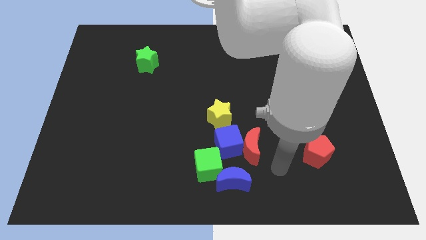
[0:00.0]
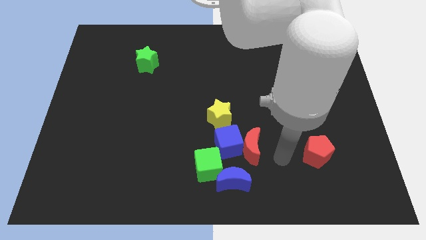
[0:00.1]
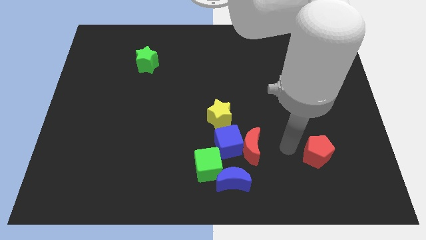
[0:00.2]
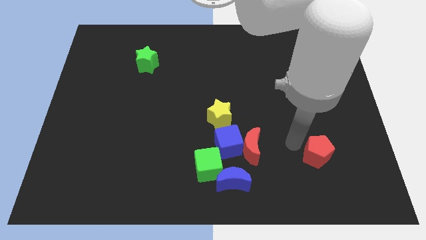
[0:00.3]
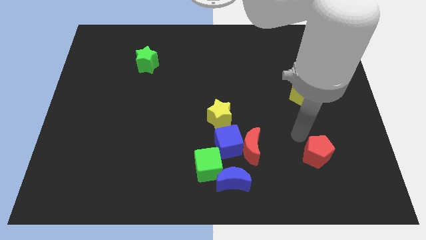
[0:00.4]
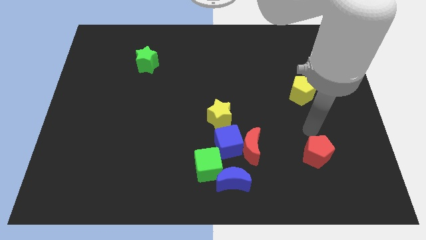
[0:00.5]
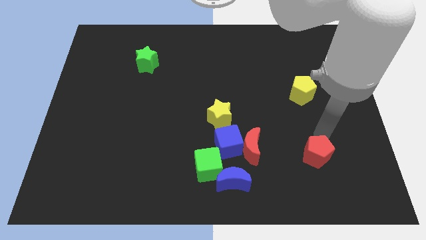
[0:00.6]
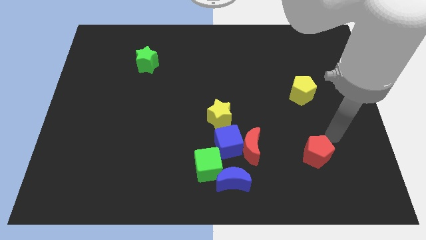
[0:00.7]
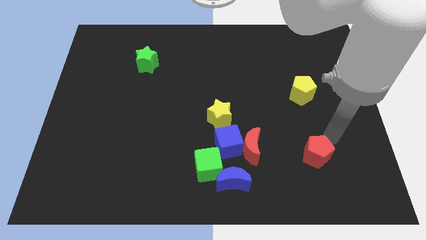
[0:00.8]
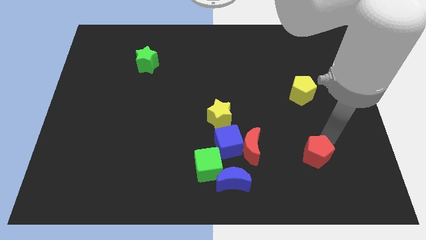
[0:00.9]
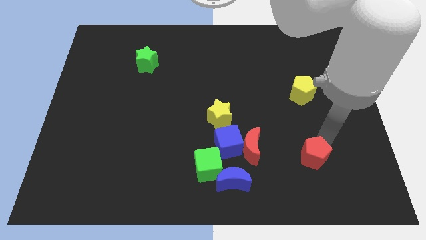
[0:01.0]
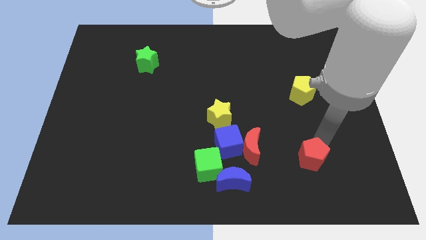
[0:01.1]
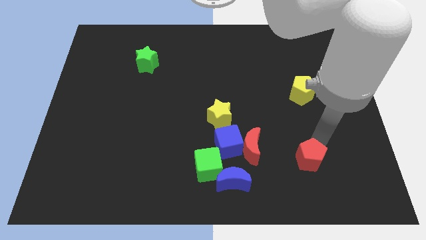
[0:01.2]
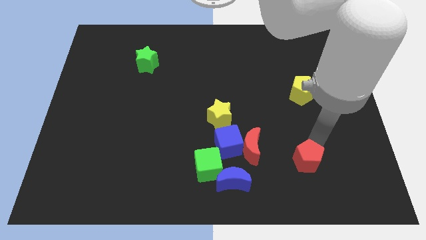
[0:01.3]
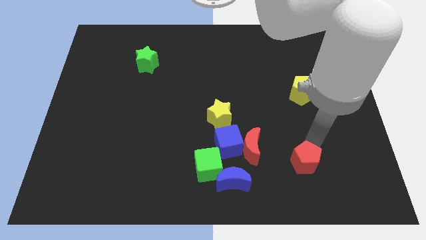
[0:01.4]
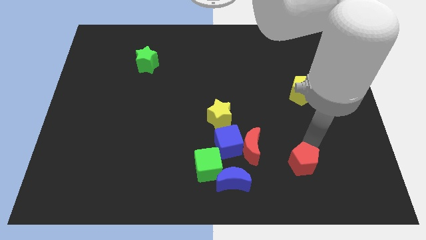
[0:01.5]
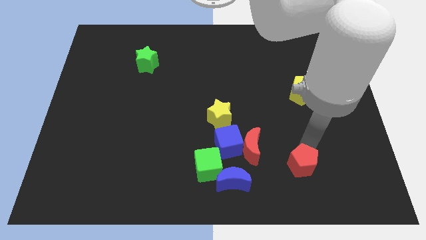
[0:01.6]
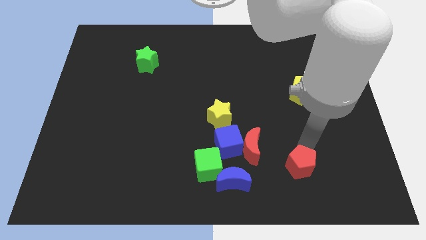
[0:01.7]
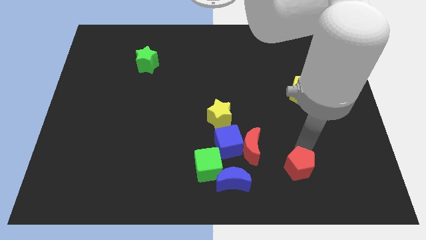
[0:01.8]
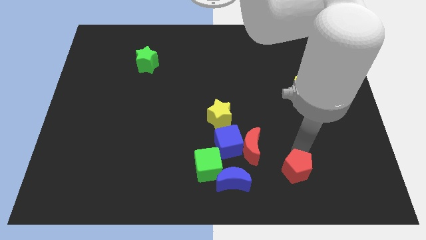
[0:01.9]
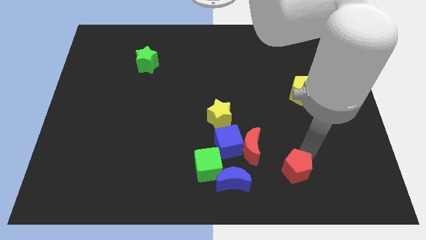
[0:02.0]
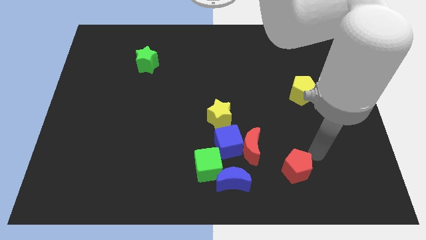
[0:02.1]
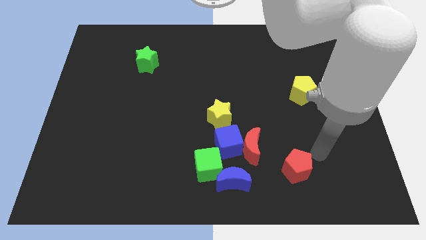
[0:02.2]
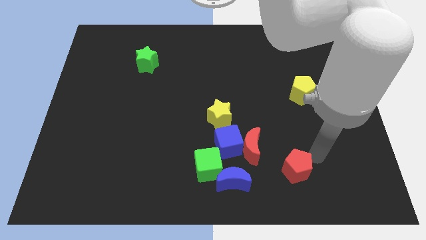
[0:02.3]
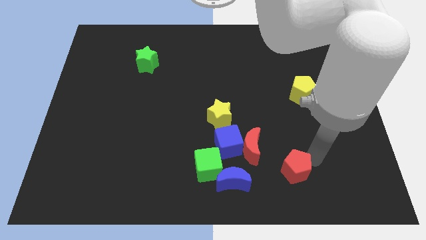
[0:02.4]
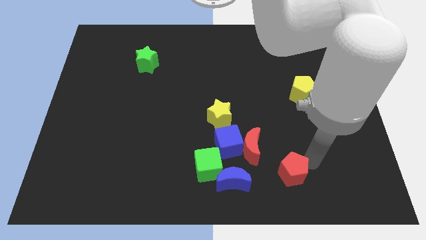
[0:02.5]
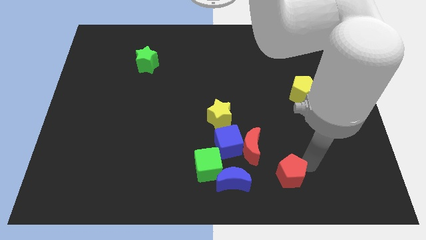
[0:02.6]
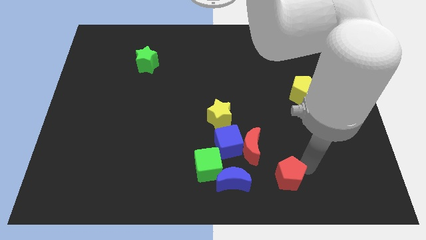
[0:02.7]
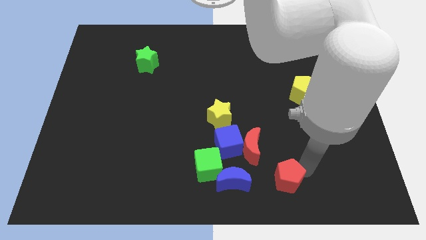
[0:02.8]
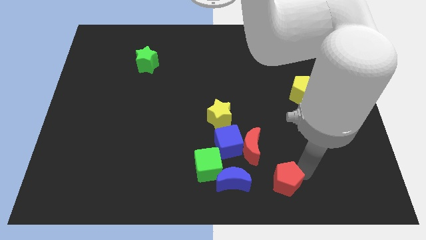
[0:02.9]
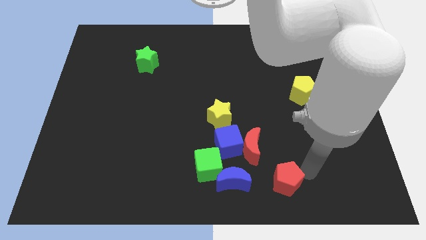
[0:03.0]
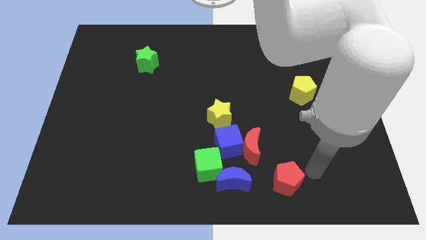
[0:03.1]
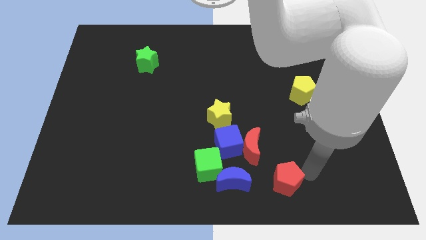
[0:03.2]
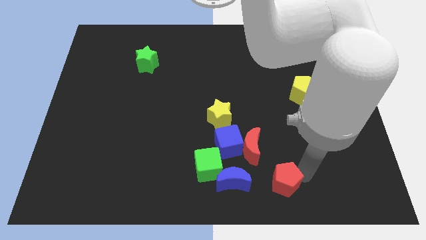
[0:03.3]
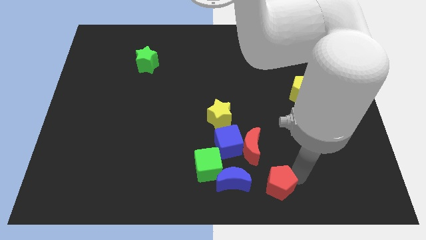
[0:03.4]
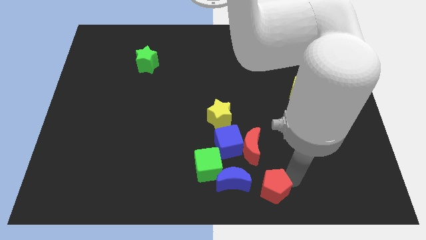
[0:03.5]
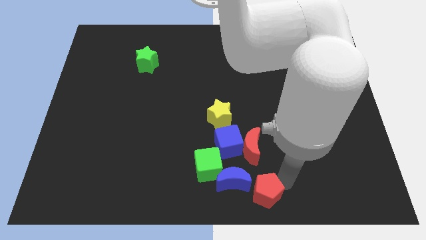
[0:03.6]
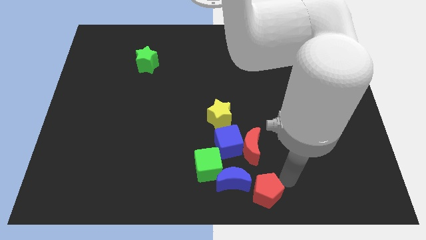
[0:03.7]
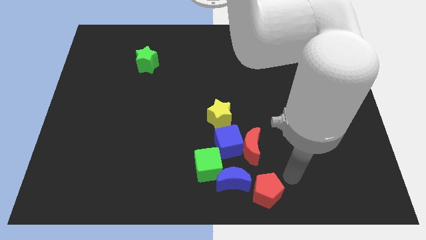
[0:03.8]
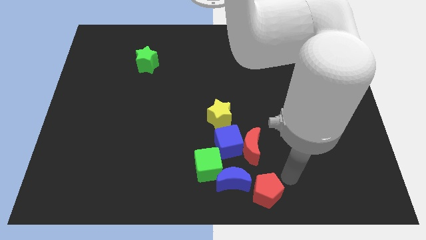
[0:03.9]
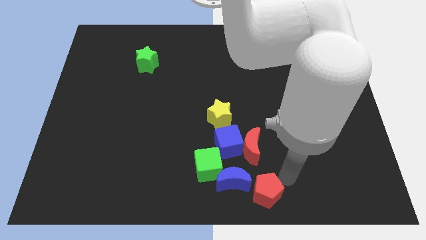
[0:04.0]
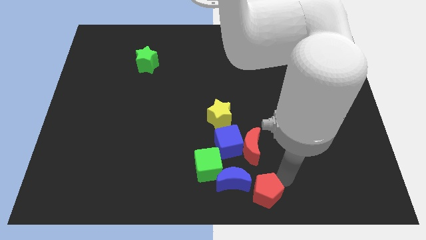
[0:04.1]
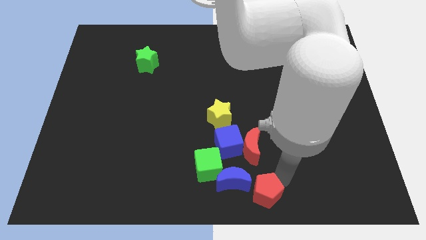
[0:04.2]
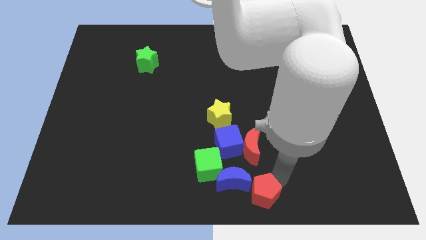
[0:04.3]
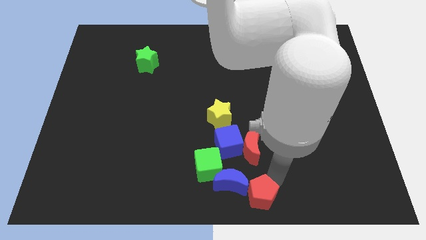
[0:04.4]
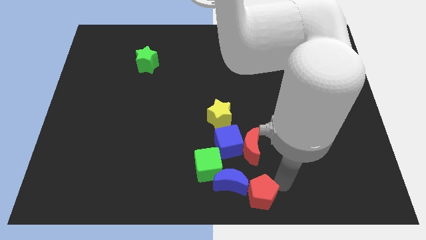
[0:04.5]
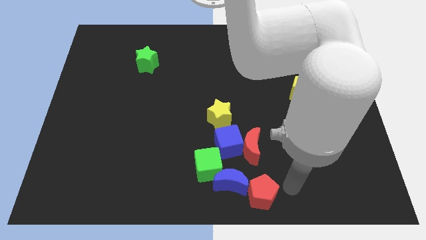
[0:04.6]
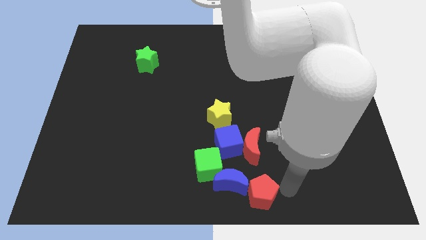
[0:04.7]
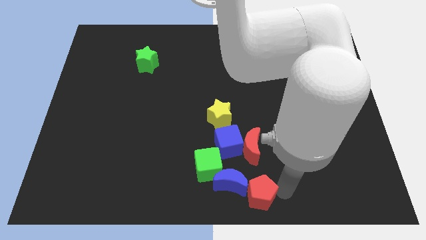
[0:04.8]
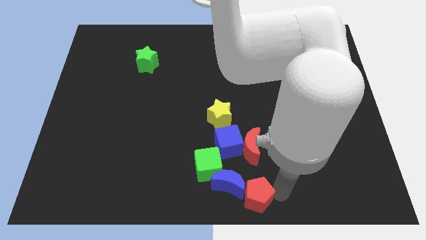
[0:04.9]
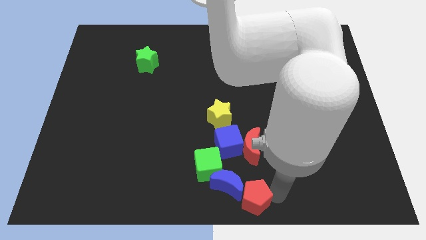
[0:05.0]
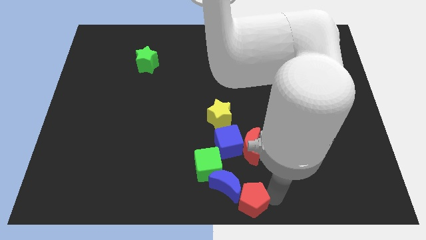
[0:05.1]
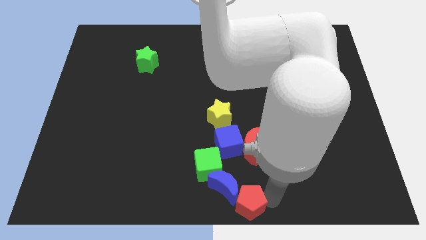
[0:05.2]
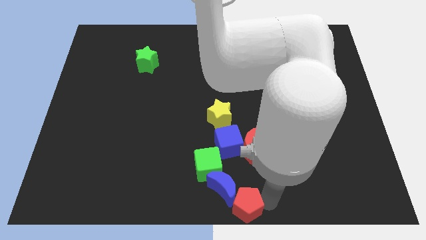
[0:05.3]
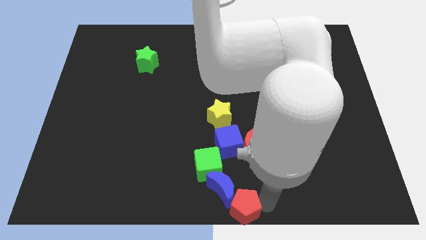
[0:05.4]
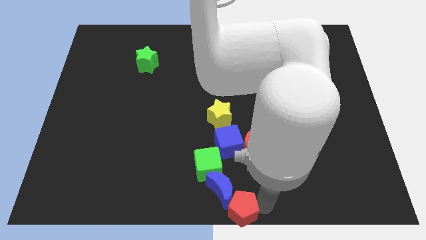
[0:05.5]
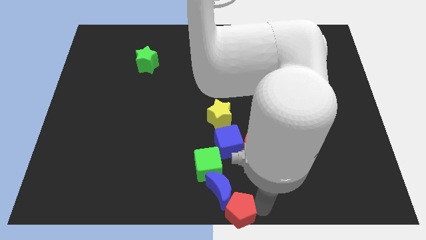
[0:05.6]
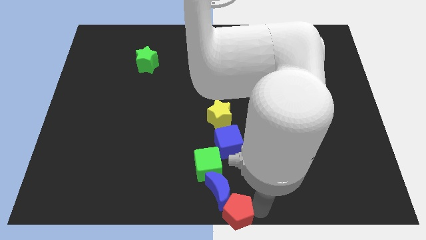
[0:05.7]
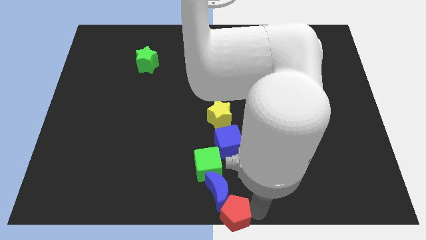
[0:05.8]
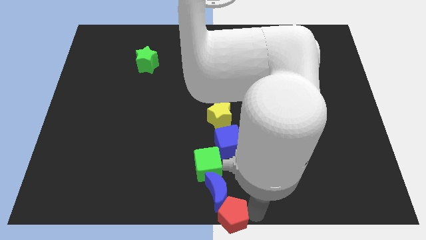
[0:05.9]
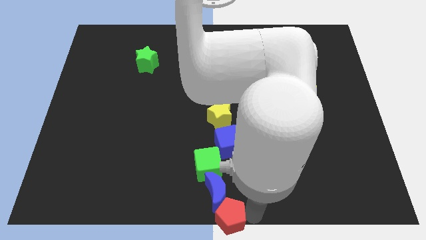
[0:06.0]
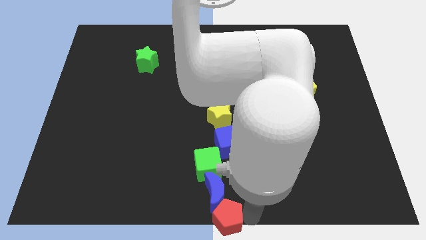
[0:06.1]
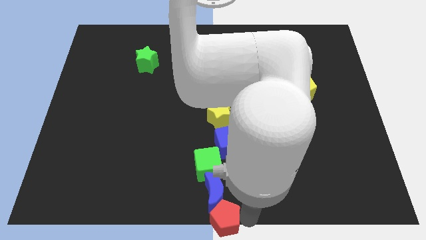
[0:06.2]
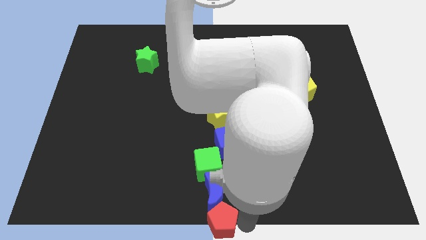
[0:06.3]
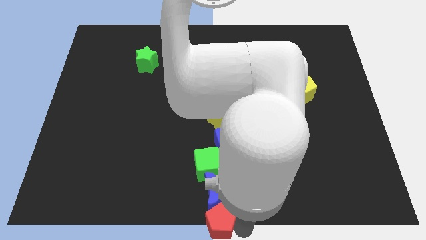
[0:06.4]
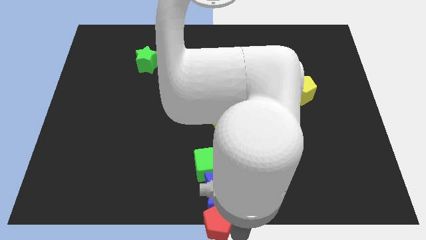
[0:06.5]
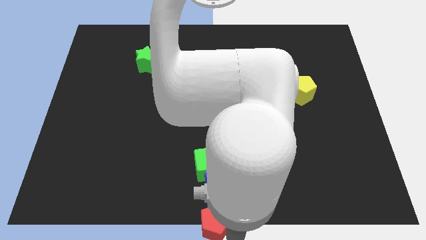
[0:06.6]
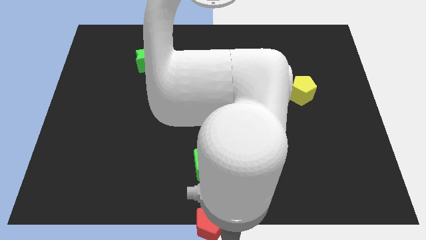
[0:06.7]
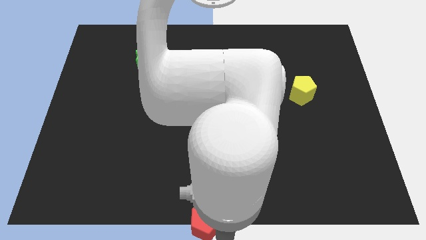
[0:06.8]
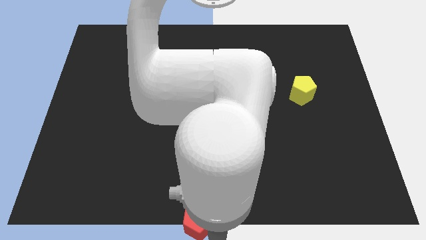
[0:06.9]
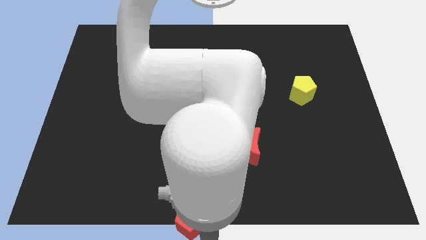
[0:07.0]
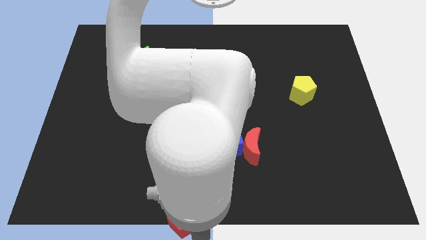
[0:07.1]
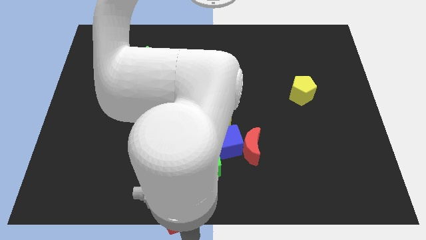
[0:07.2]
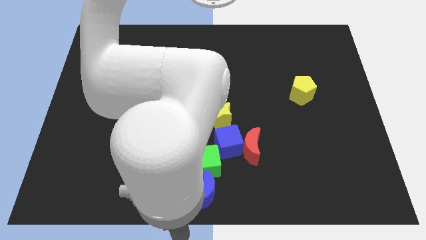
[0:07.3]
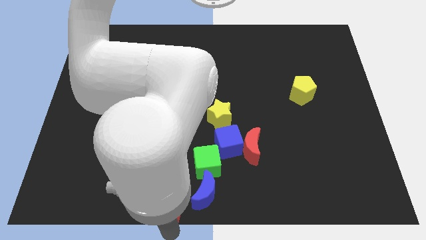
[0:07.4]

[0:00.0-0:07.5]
push the red pentagon to the left

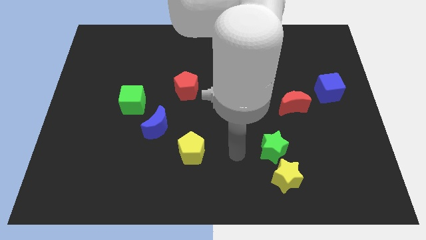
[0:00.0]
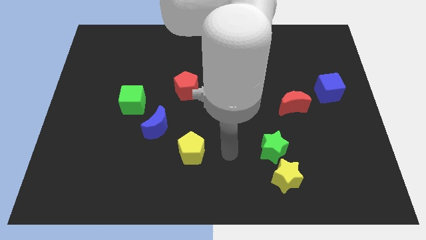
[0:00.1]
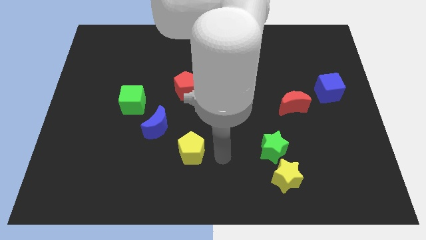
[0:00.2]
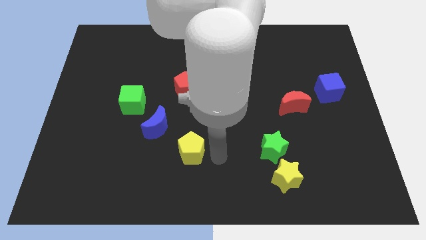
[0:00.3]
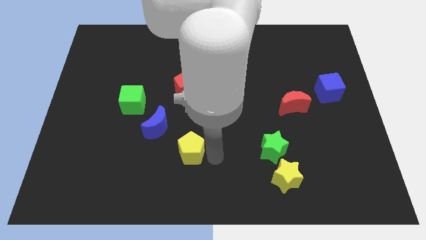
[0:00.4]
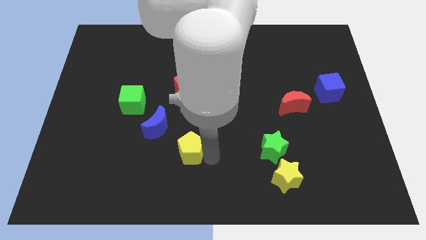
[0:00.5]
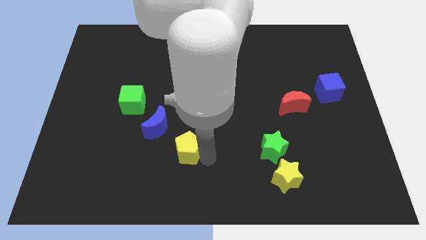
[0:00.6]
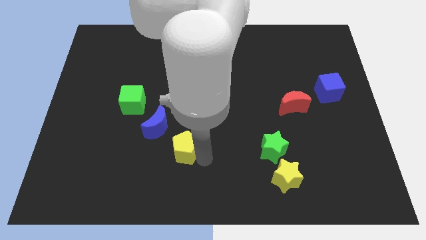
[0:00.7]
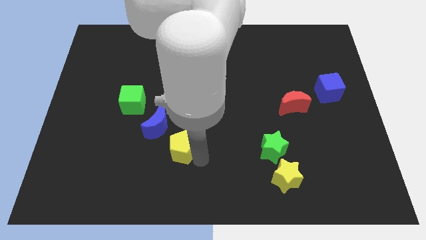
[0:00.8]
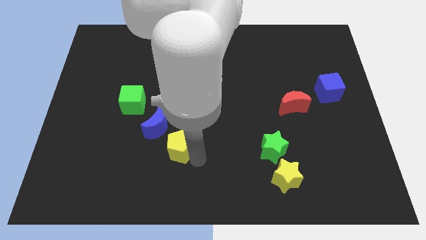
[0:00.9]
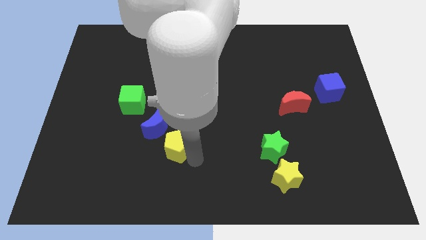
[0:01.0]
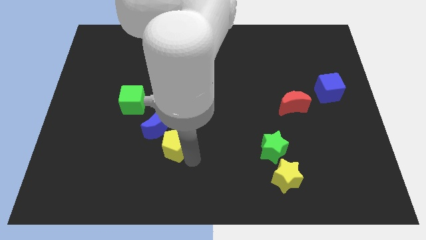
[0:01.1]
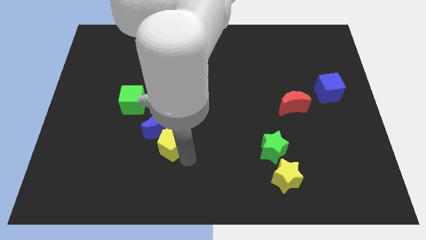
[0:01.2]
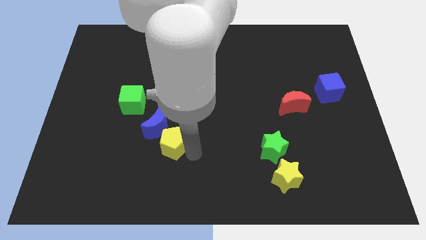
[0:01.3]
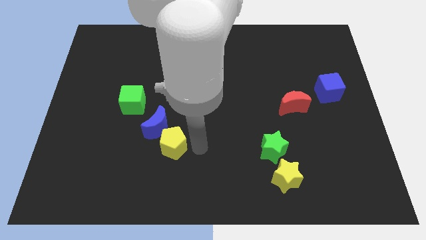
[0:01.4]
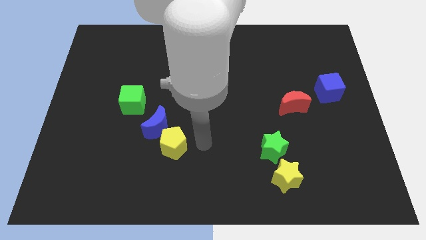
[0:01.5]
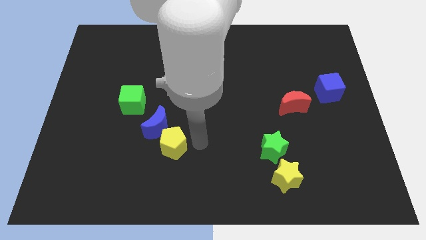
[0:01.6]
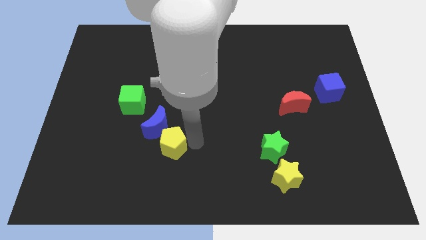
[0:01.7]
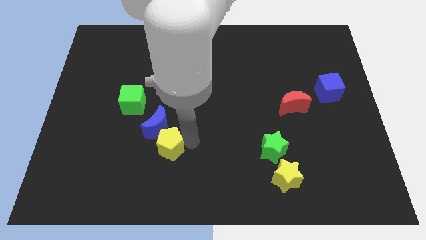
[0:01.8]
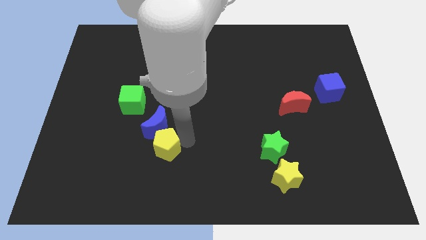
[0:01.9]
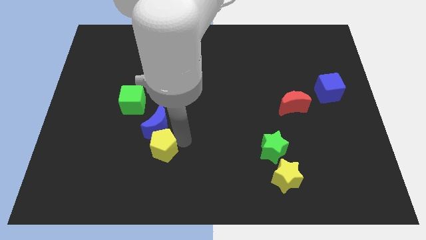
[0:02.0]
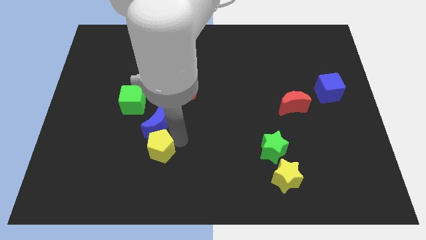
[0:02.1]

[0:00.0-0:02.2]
slightly slide the yellow pentagon left
